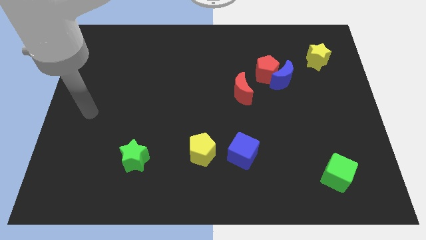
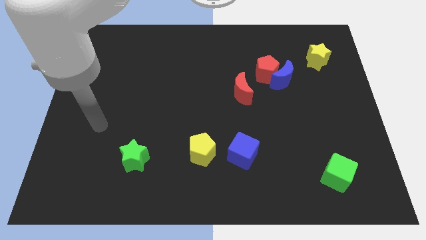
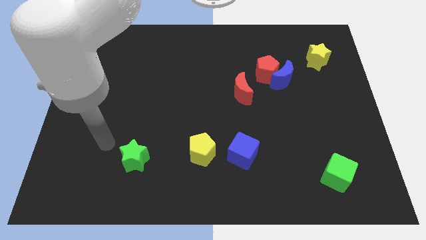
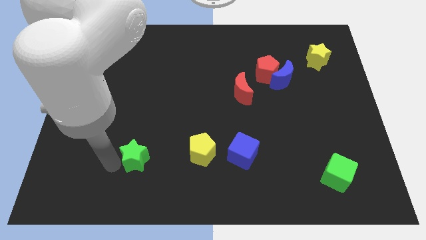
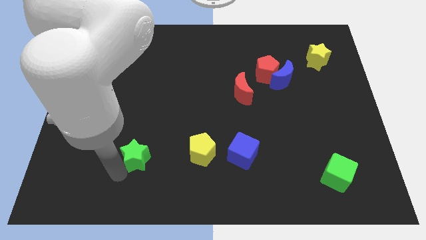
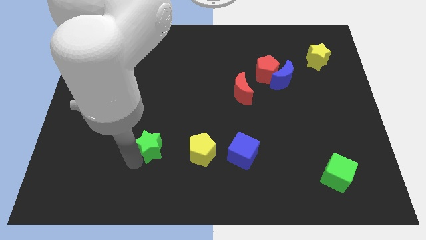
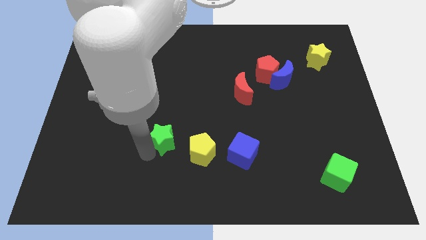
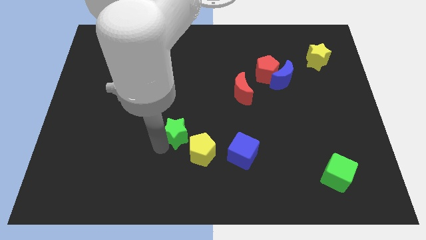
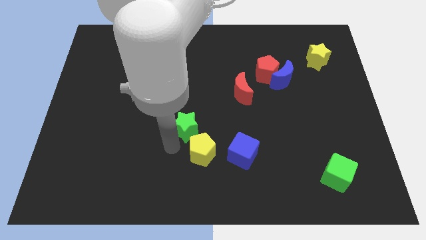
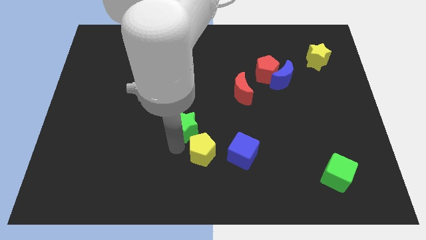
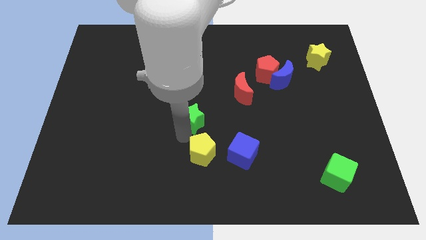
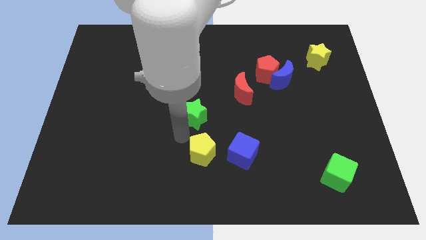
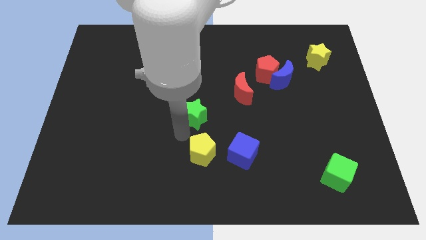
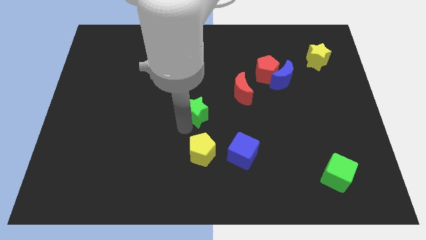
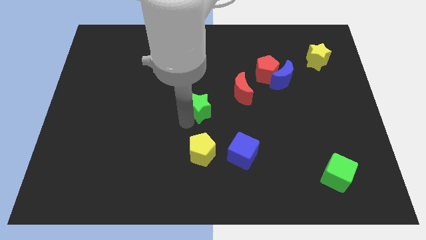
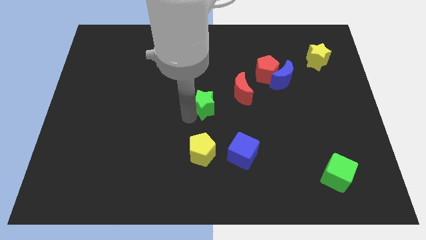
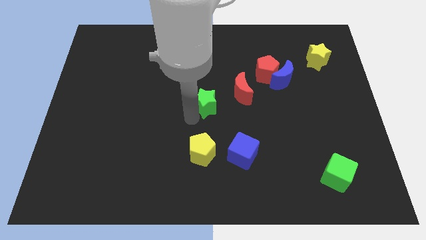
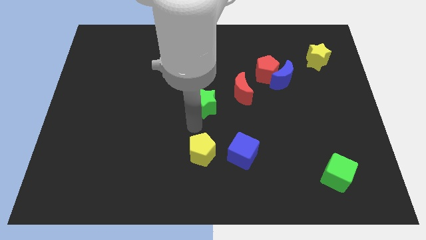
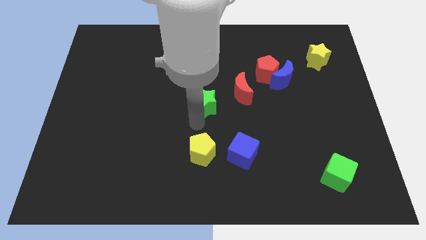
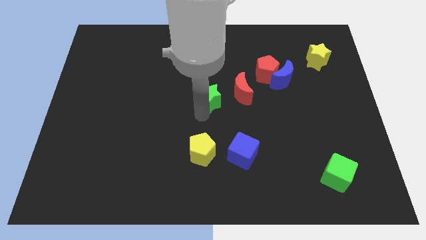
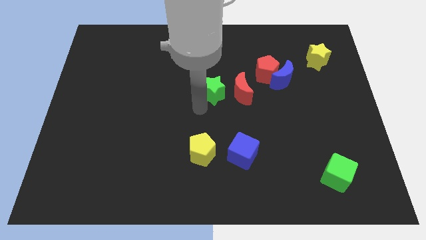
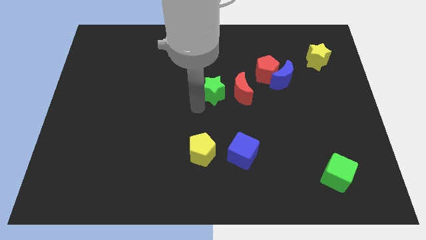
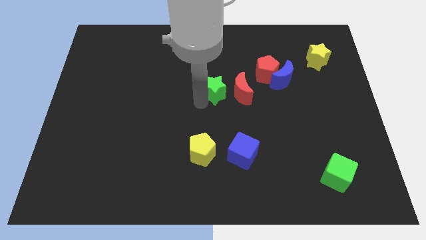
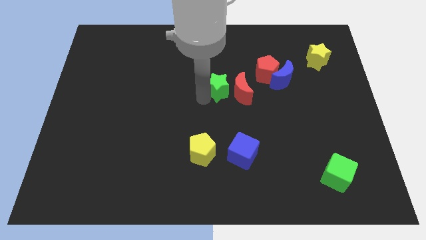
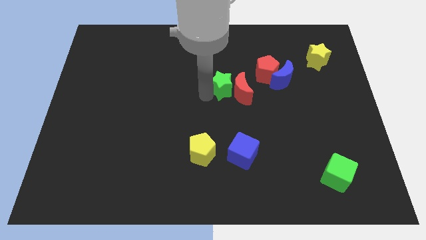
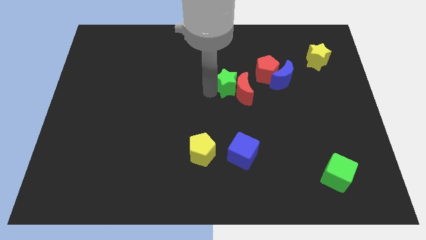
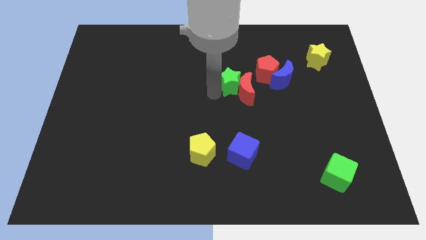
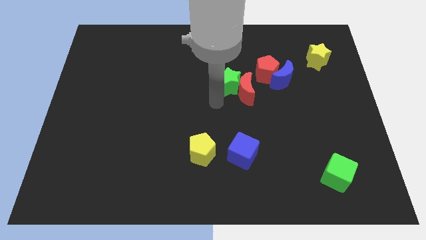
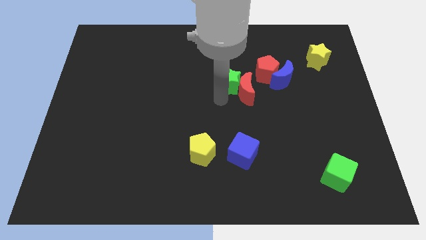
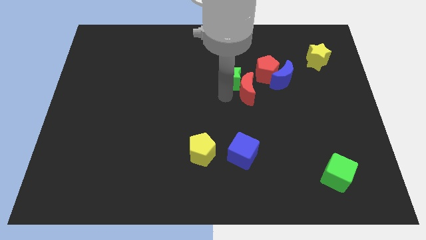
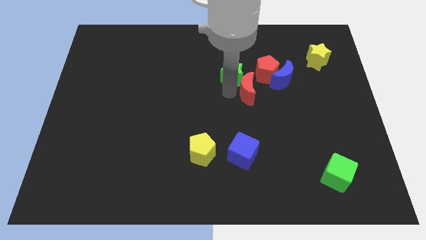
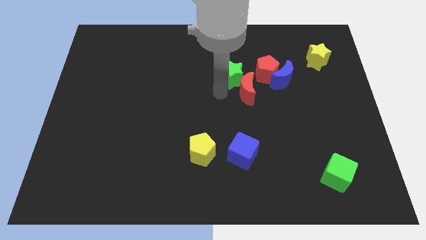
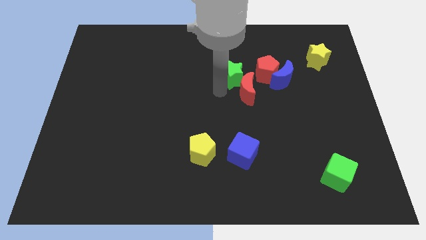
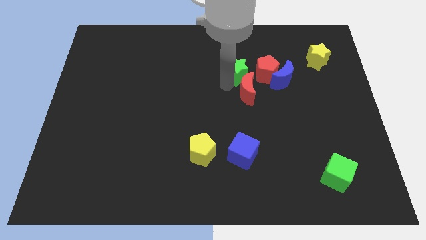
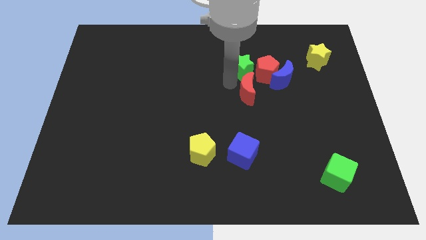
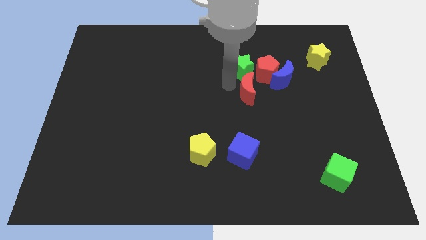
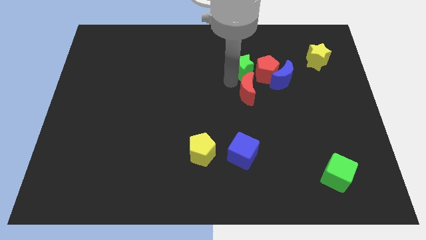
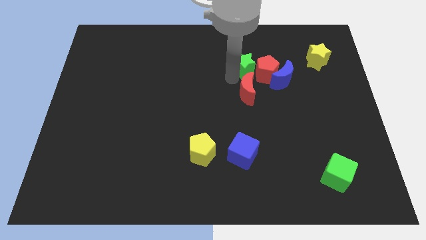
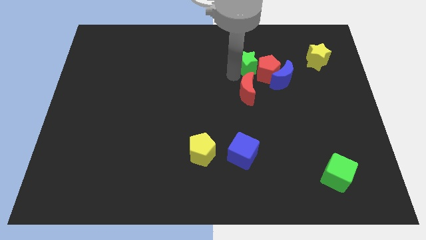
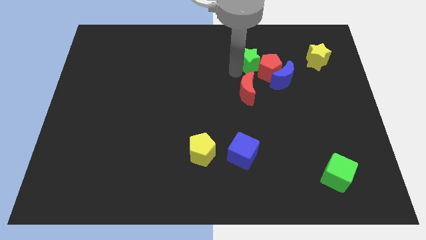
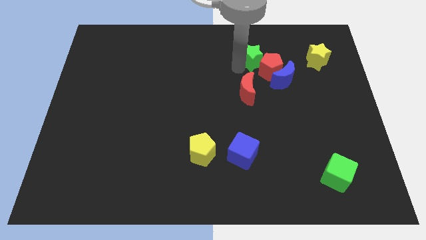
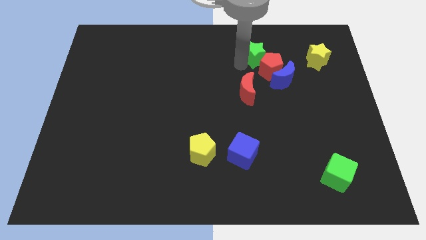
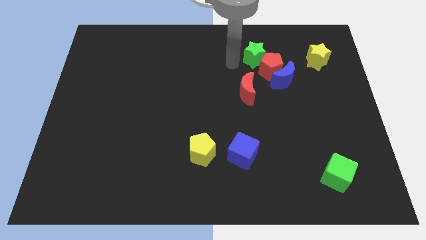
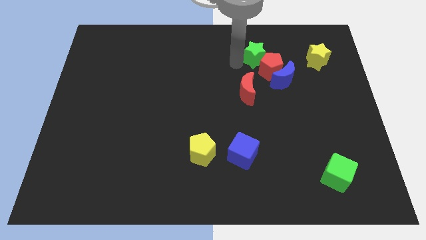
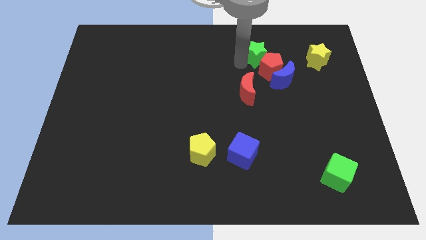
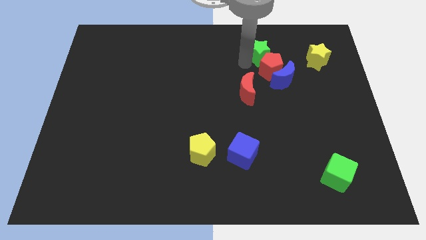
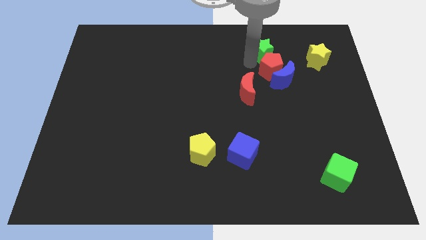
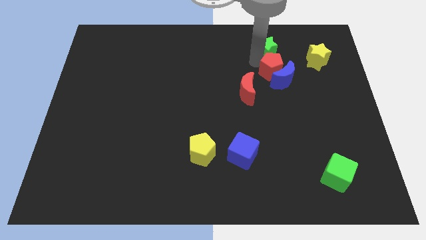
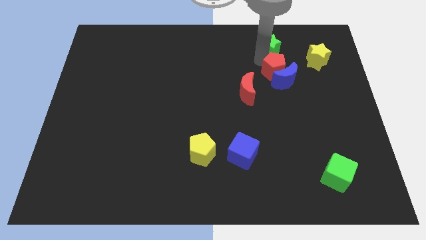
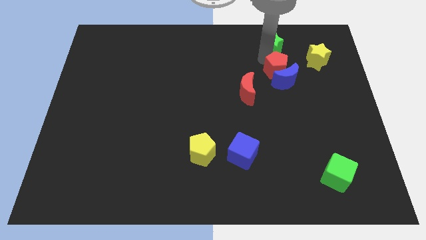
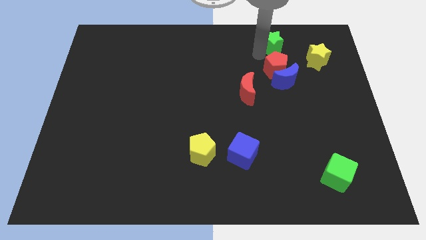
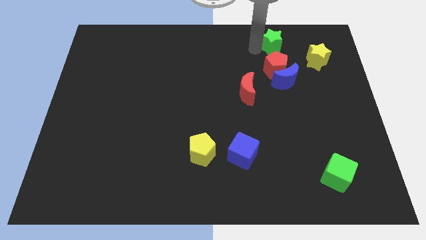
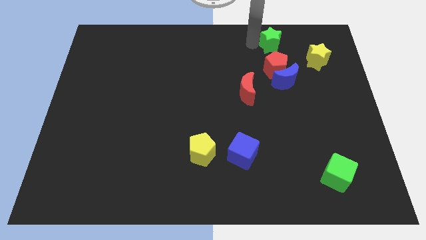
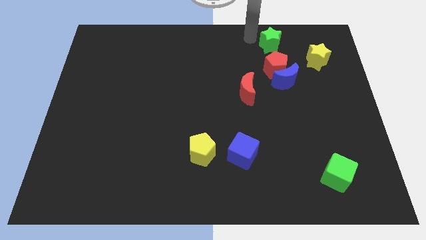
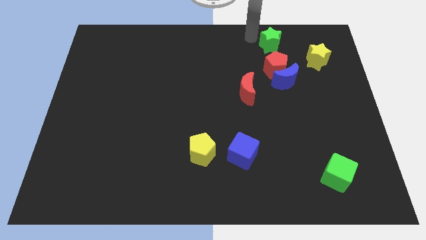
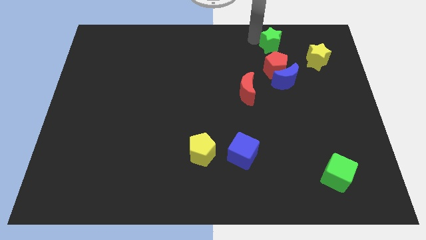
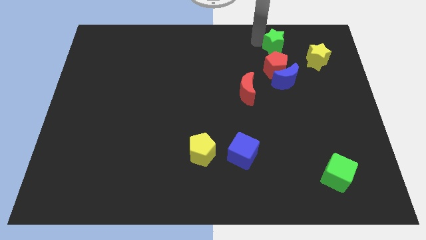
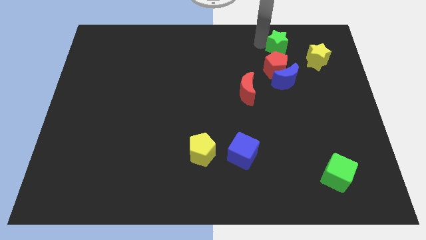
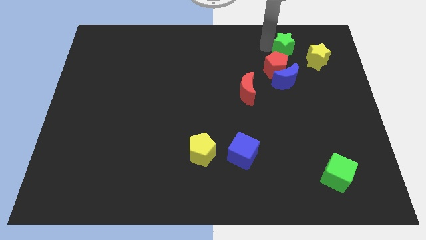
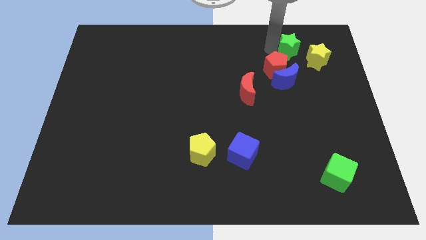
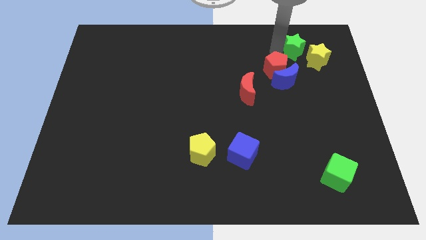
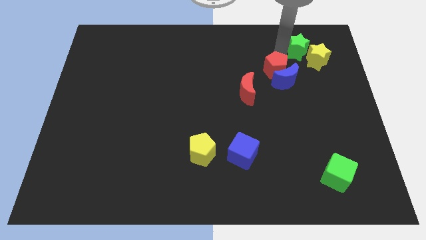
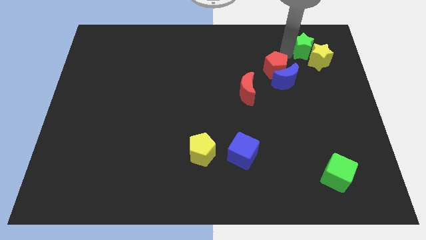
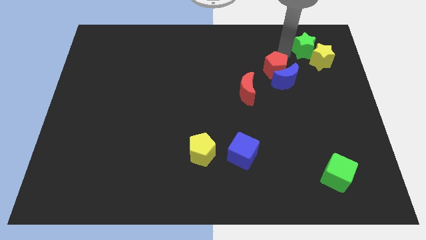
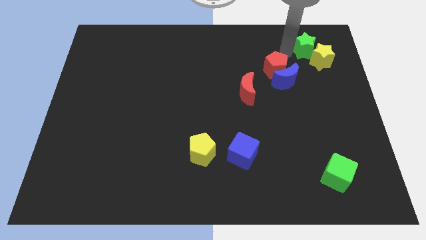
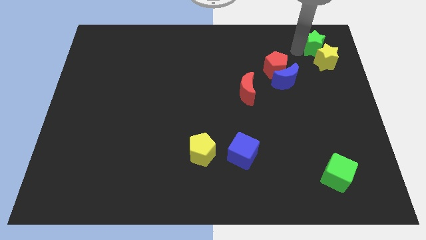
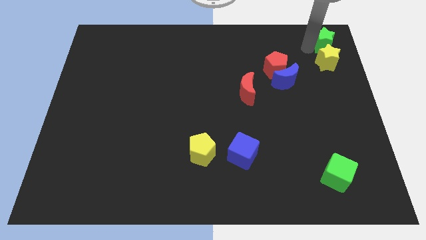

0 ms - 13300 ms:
push the green star to the upper right corner
